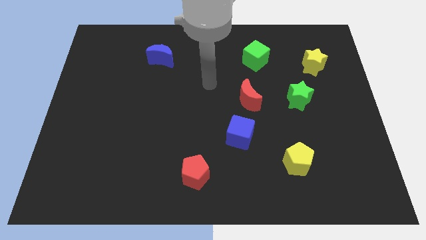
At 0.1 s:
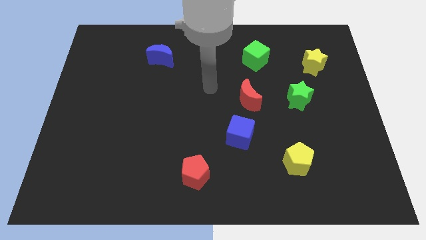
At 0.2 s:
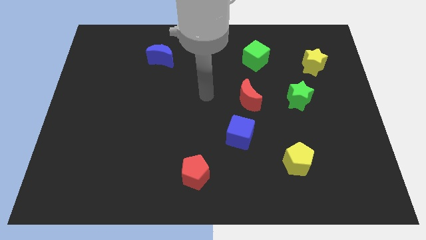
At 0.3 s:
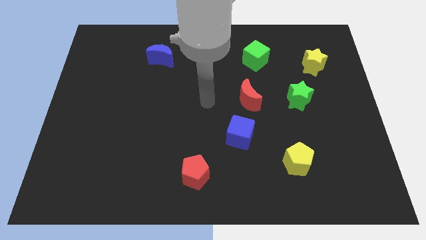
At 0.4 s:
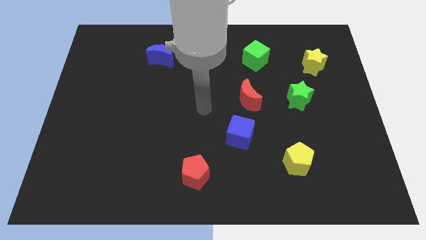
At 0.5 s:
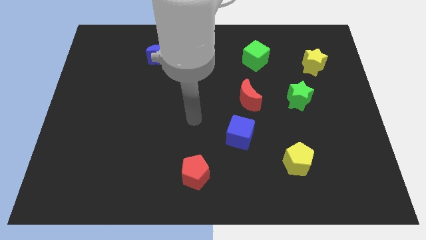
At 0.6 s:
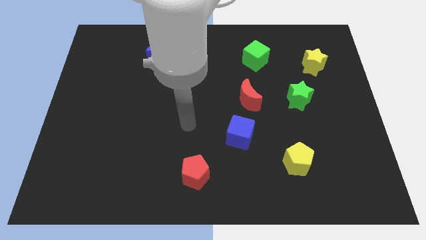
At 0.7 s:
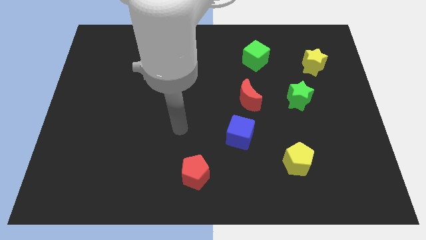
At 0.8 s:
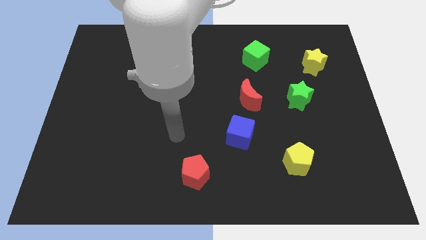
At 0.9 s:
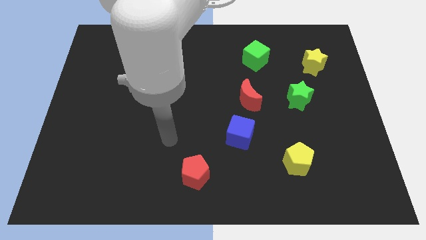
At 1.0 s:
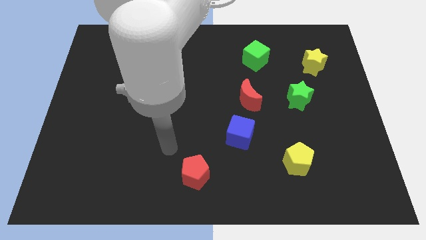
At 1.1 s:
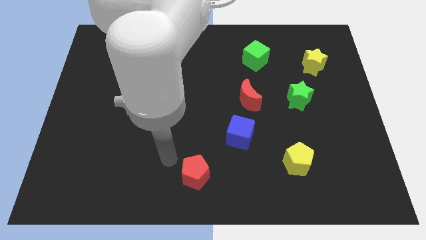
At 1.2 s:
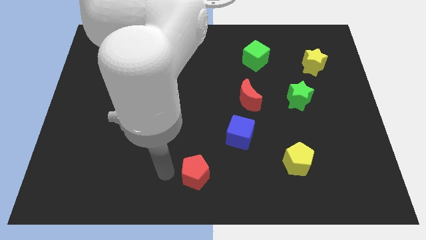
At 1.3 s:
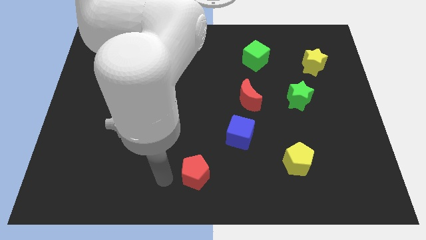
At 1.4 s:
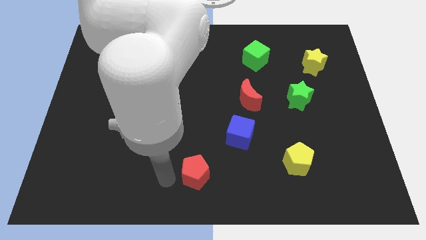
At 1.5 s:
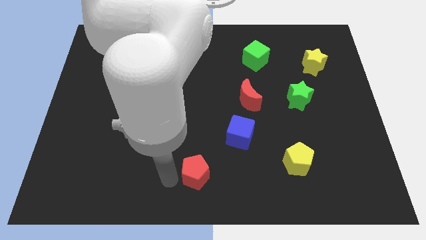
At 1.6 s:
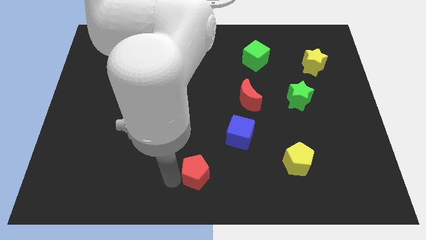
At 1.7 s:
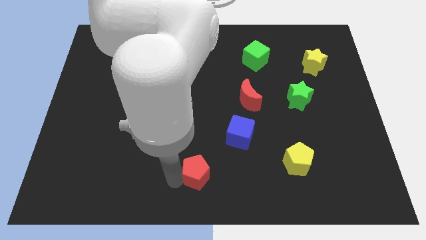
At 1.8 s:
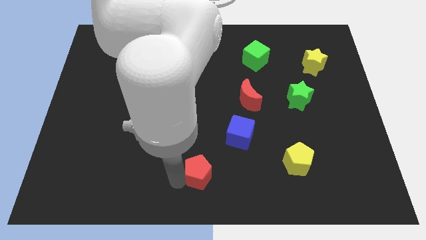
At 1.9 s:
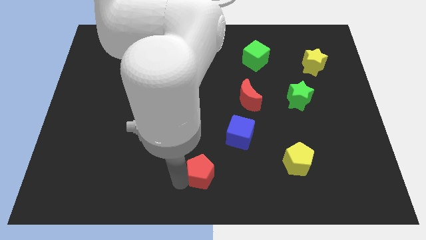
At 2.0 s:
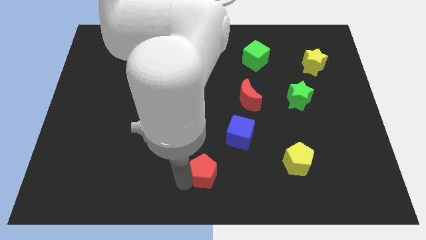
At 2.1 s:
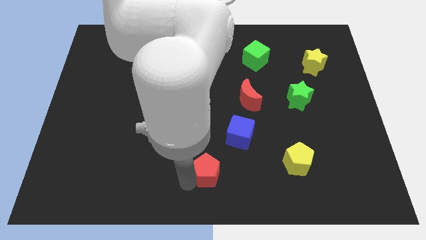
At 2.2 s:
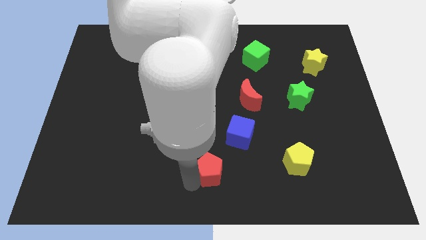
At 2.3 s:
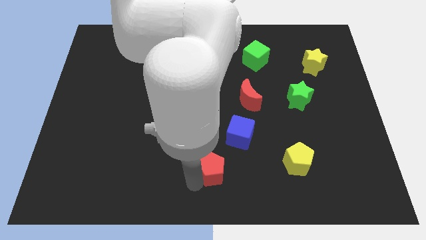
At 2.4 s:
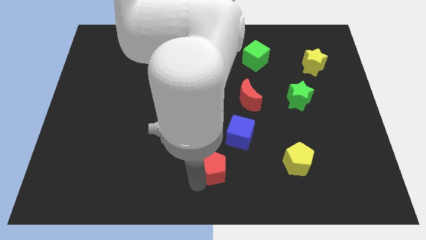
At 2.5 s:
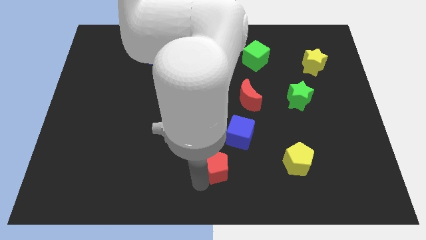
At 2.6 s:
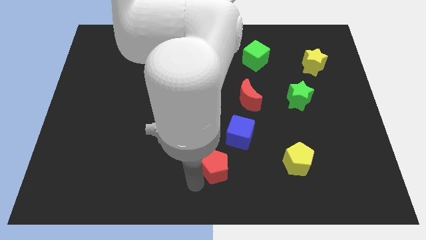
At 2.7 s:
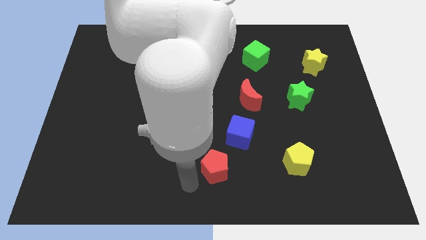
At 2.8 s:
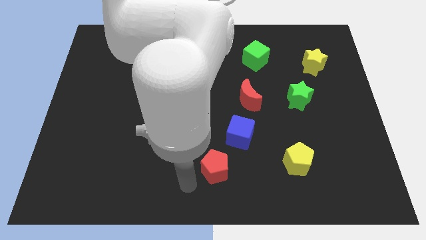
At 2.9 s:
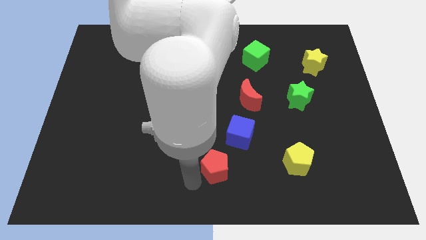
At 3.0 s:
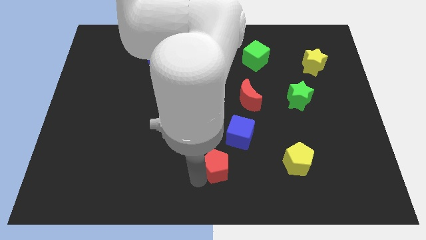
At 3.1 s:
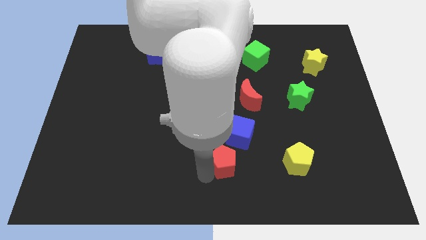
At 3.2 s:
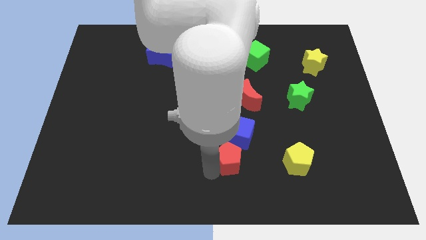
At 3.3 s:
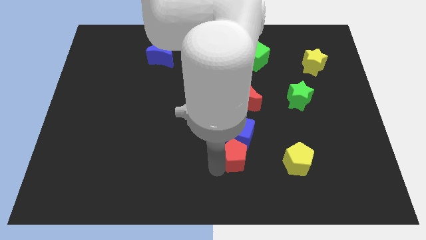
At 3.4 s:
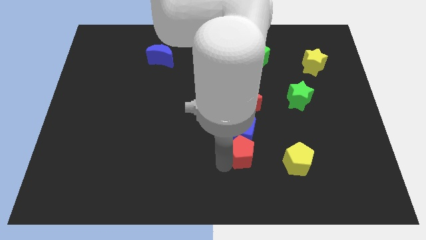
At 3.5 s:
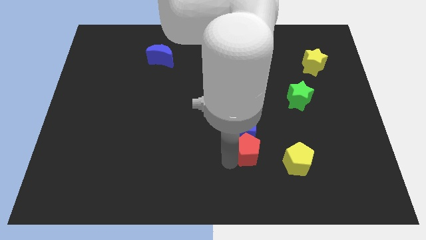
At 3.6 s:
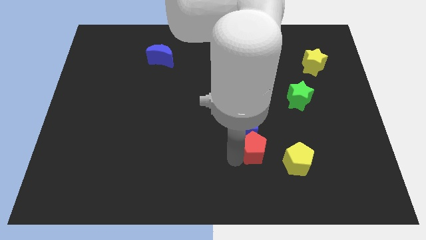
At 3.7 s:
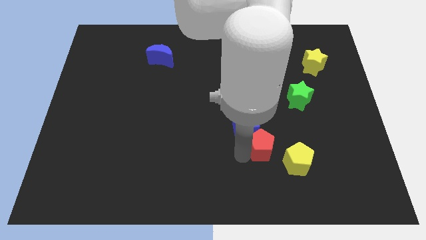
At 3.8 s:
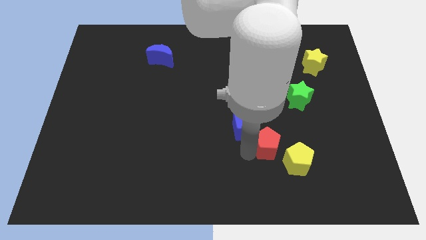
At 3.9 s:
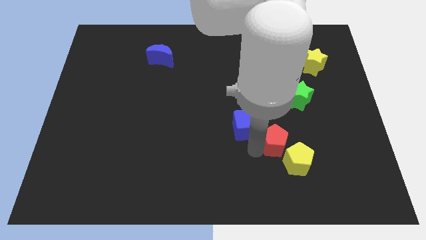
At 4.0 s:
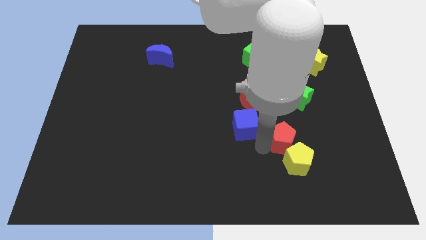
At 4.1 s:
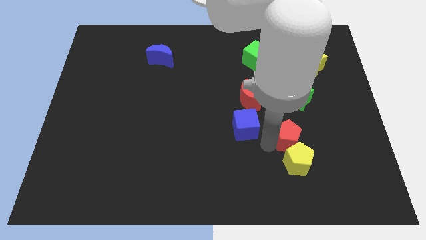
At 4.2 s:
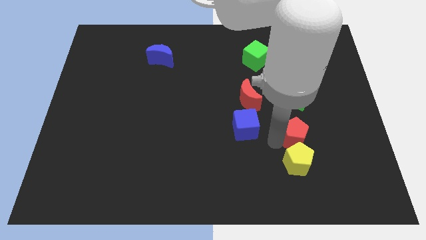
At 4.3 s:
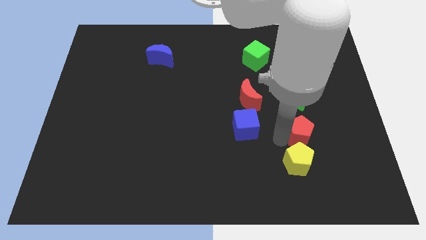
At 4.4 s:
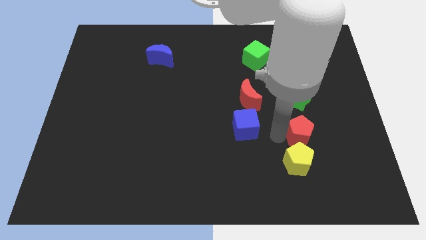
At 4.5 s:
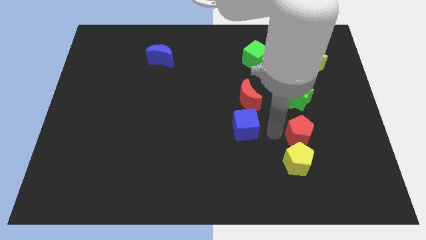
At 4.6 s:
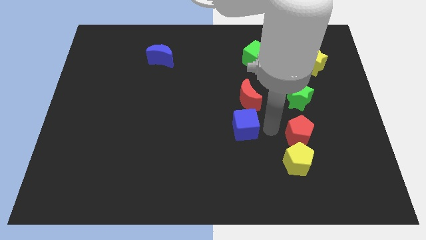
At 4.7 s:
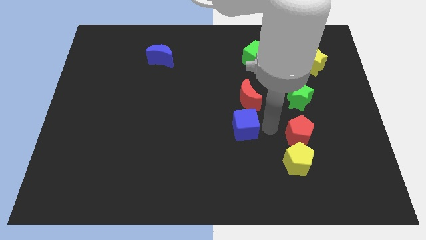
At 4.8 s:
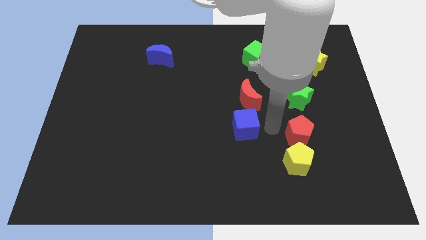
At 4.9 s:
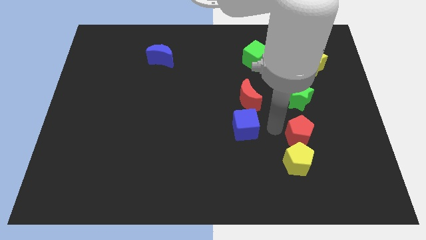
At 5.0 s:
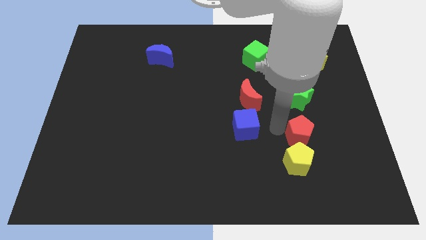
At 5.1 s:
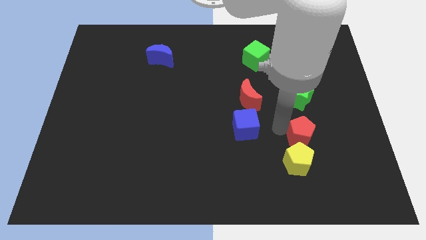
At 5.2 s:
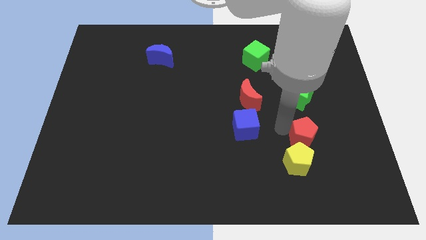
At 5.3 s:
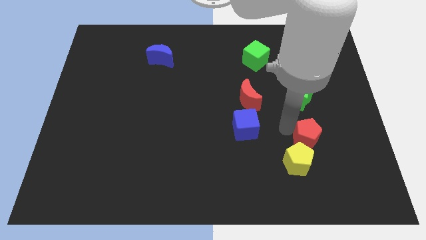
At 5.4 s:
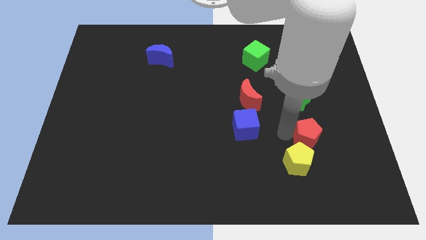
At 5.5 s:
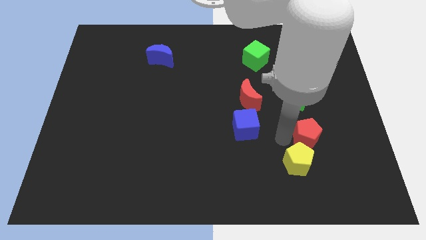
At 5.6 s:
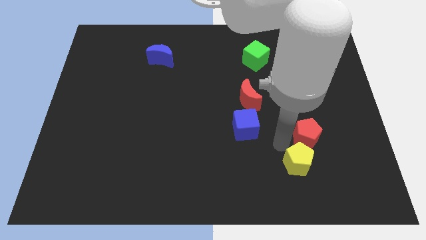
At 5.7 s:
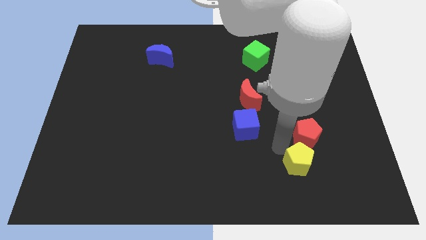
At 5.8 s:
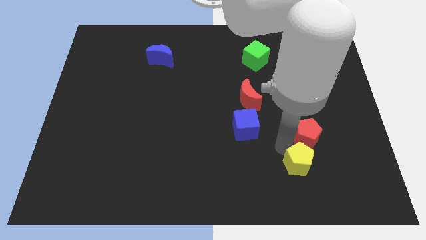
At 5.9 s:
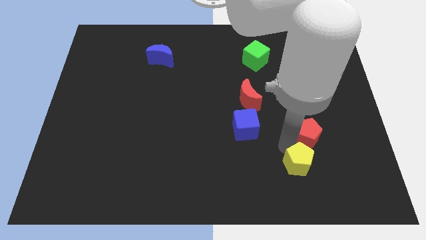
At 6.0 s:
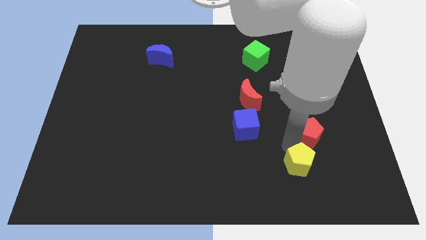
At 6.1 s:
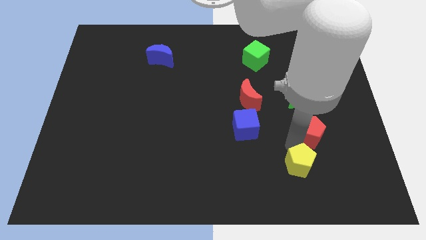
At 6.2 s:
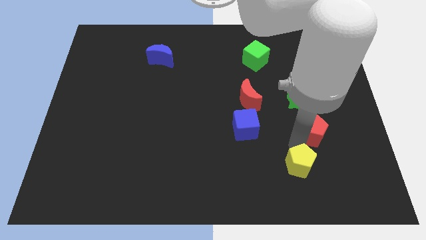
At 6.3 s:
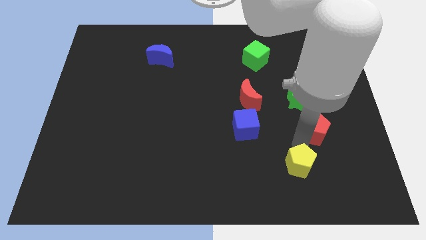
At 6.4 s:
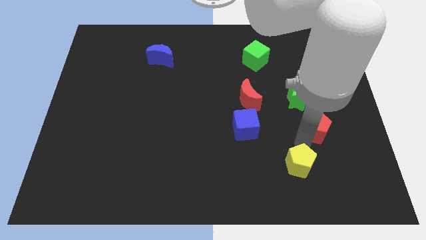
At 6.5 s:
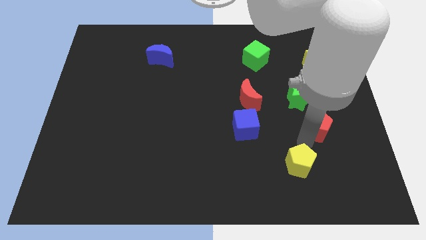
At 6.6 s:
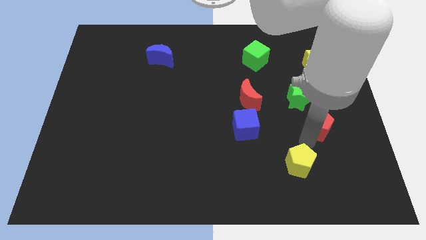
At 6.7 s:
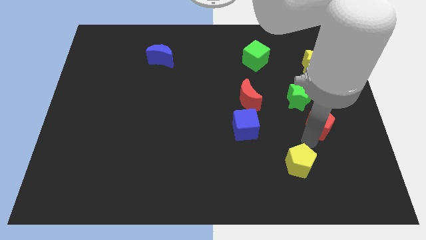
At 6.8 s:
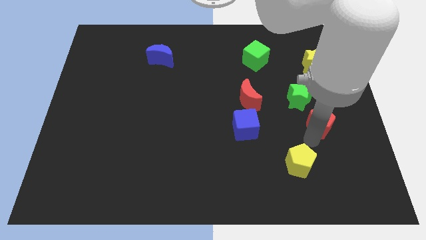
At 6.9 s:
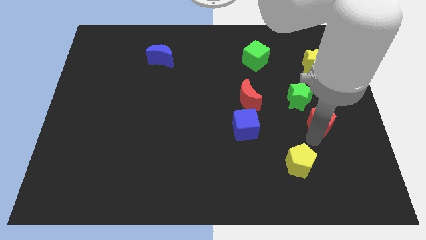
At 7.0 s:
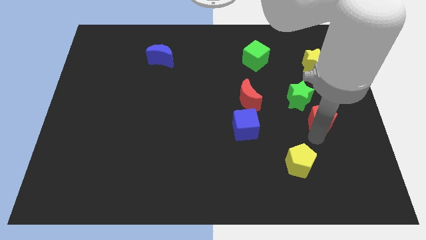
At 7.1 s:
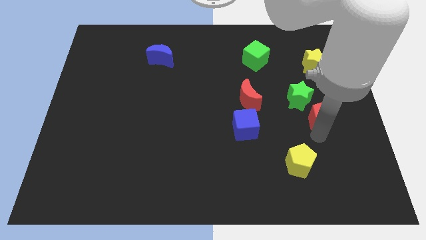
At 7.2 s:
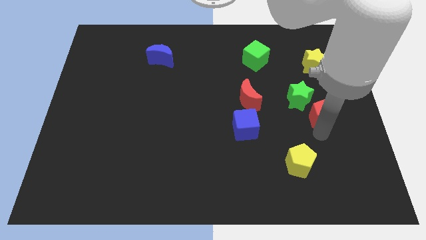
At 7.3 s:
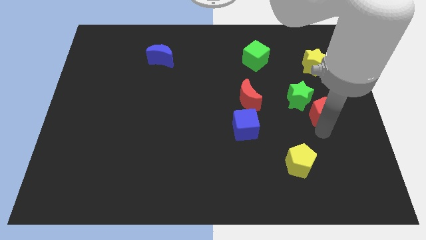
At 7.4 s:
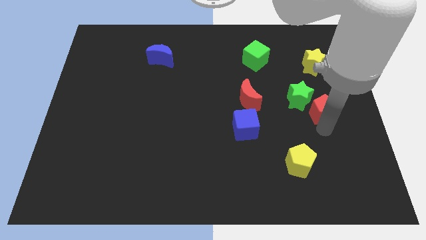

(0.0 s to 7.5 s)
put the red pentagon to the right side of the board
